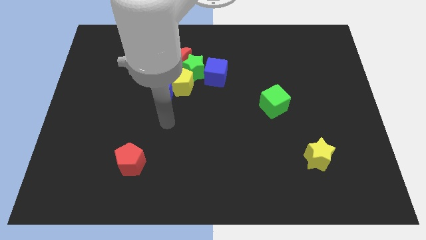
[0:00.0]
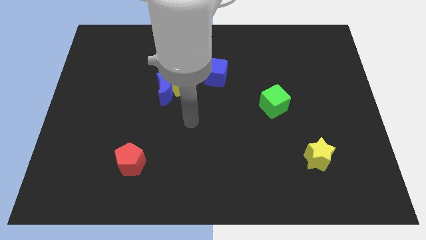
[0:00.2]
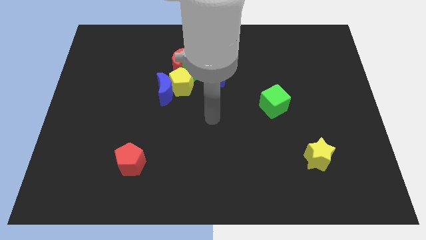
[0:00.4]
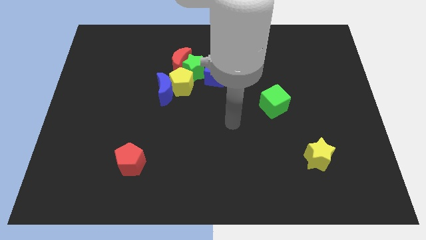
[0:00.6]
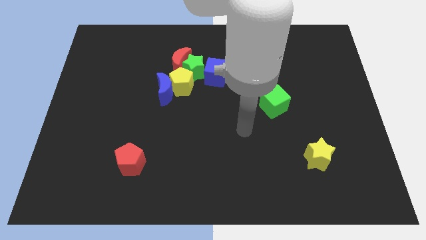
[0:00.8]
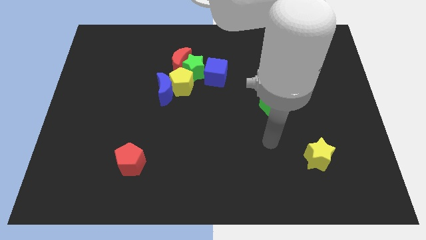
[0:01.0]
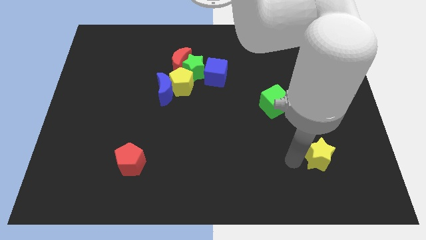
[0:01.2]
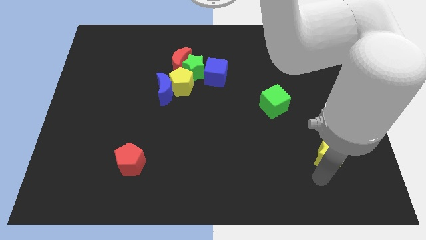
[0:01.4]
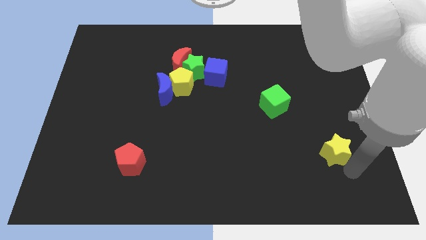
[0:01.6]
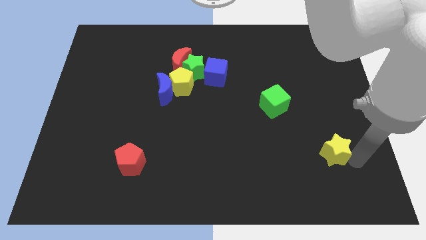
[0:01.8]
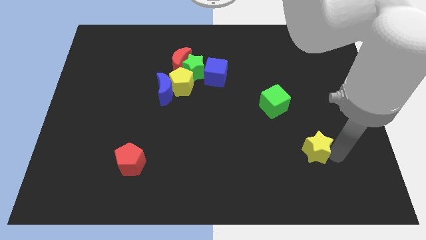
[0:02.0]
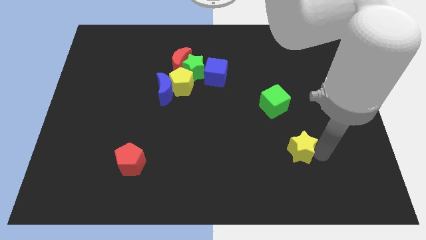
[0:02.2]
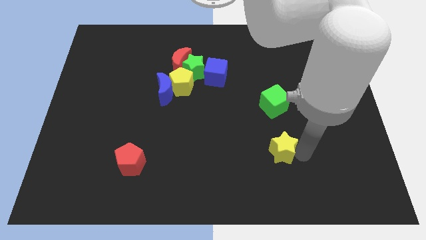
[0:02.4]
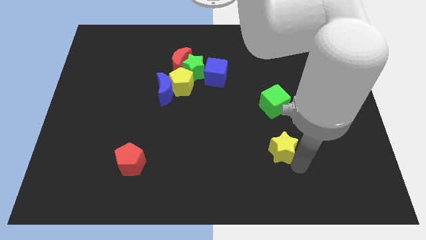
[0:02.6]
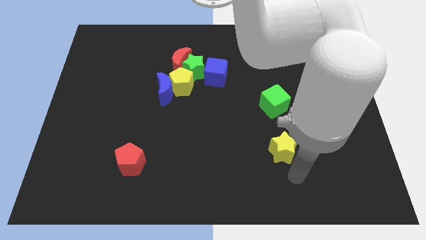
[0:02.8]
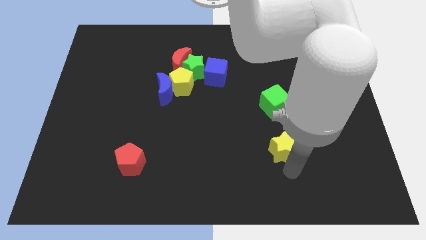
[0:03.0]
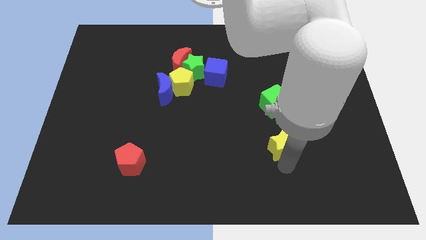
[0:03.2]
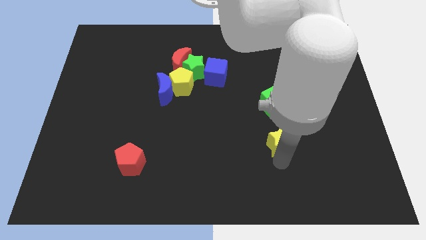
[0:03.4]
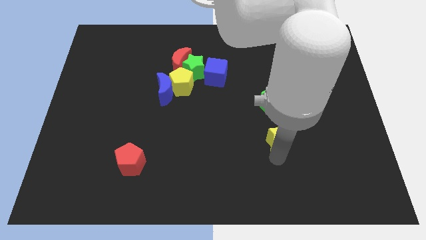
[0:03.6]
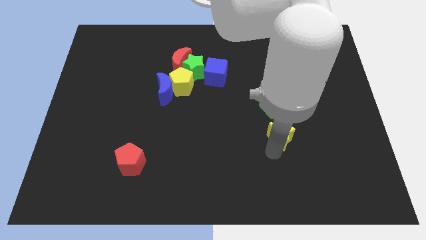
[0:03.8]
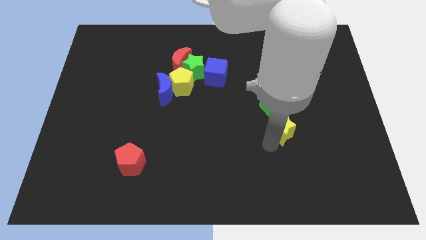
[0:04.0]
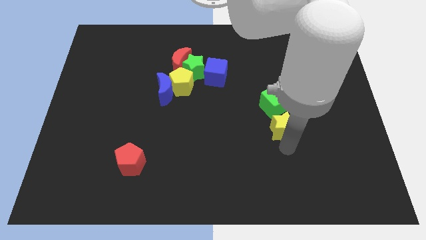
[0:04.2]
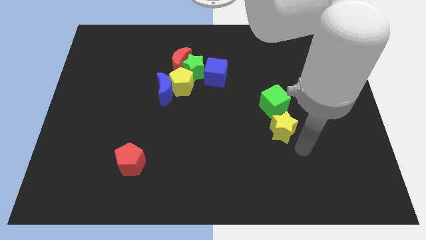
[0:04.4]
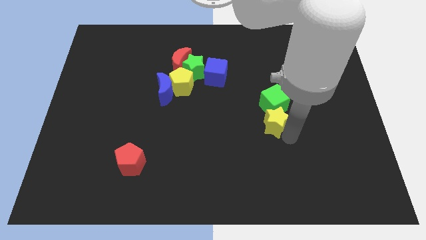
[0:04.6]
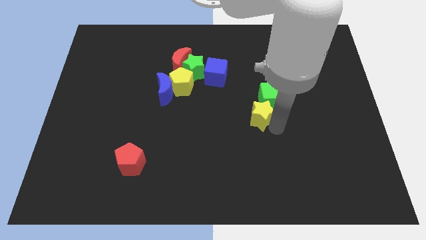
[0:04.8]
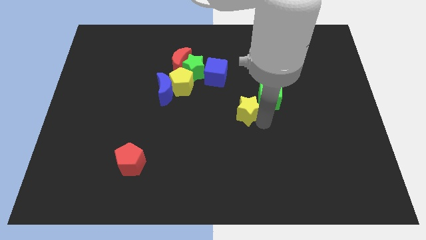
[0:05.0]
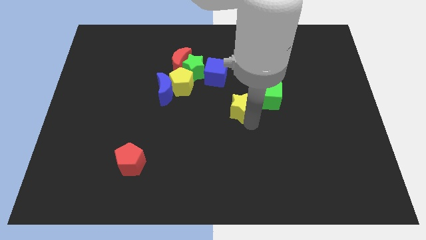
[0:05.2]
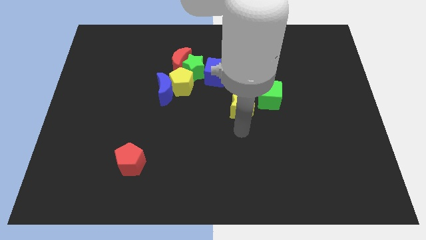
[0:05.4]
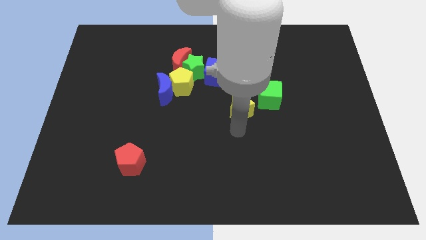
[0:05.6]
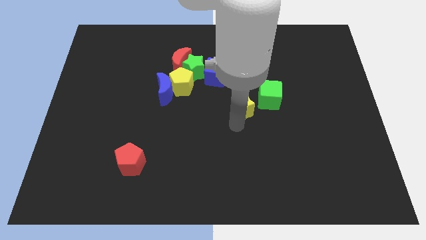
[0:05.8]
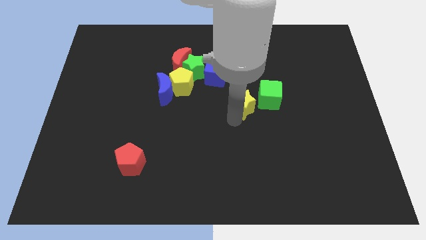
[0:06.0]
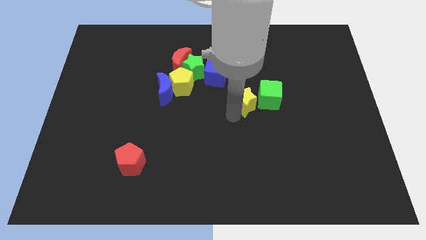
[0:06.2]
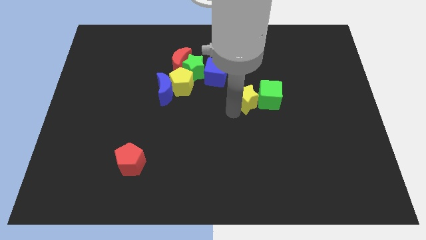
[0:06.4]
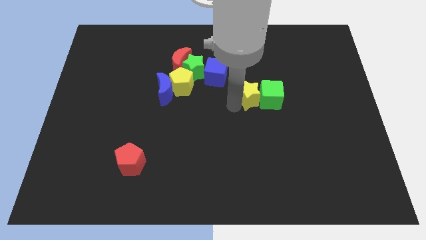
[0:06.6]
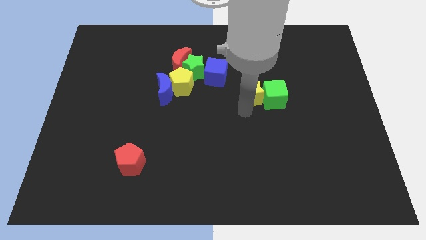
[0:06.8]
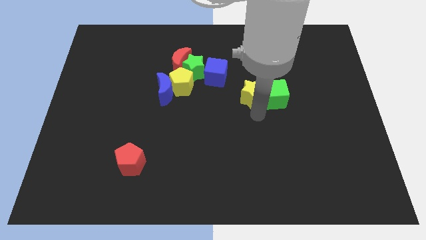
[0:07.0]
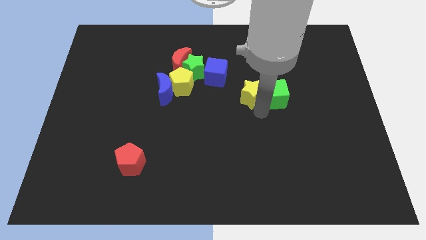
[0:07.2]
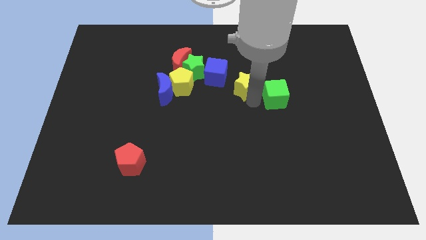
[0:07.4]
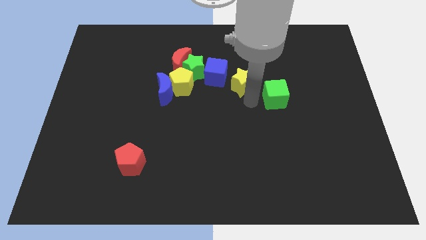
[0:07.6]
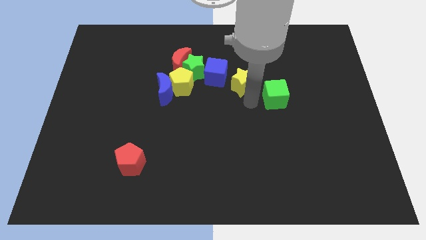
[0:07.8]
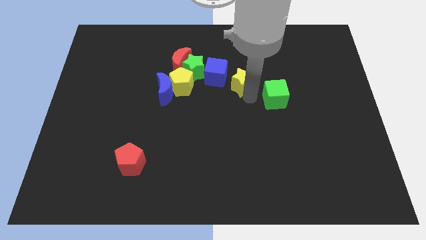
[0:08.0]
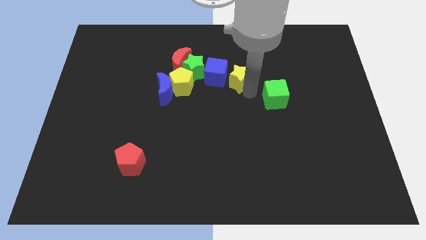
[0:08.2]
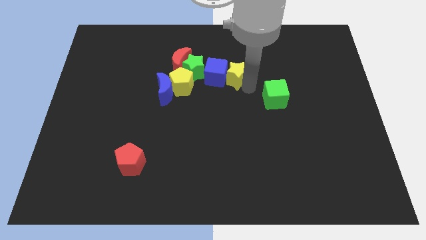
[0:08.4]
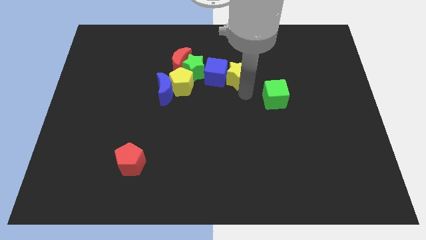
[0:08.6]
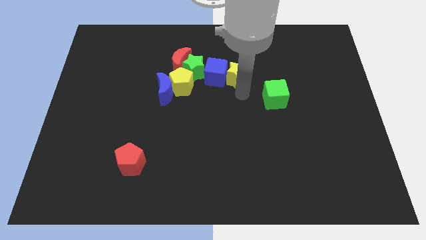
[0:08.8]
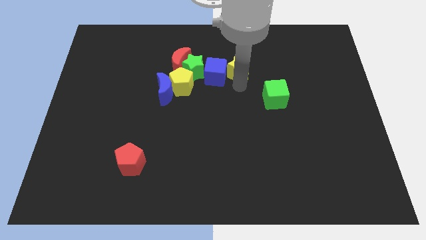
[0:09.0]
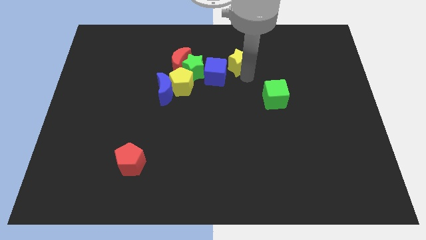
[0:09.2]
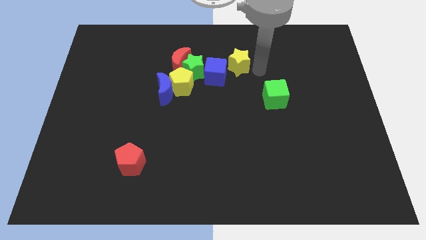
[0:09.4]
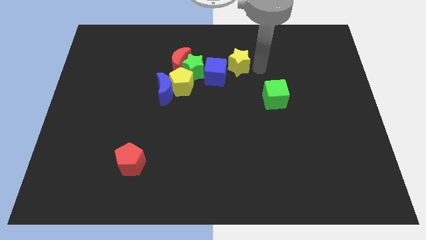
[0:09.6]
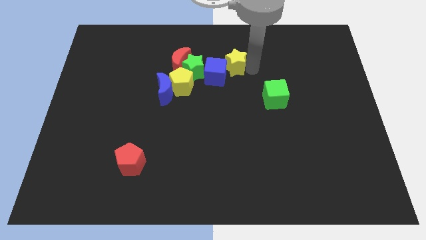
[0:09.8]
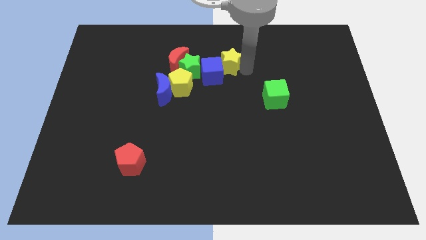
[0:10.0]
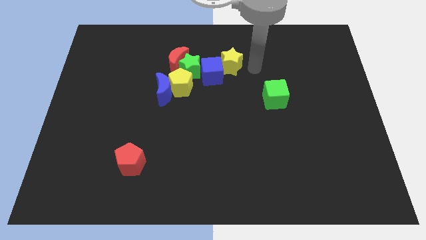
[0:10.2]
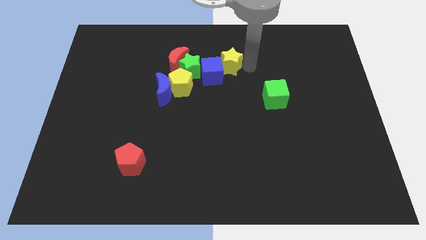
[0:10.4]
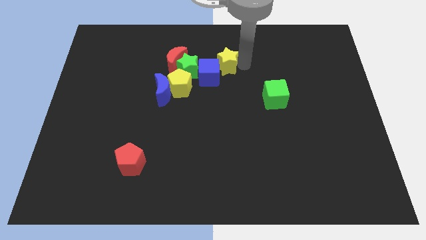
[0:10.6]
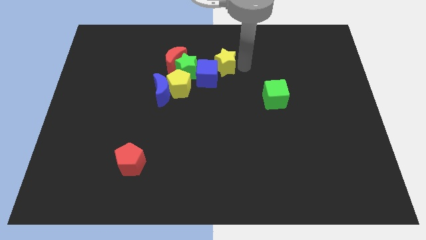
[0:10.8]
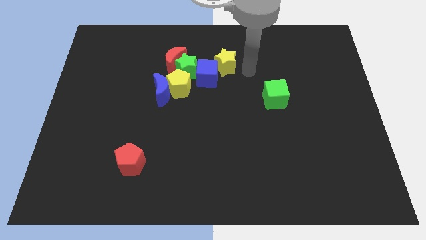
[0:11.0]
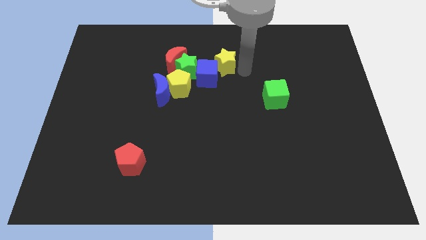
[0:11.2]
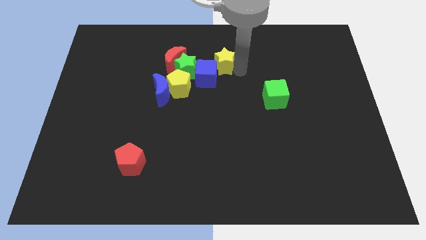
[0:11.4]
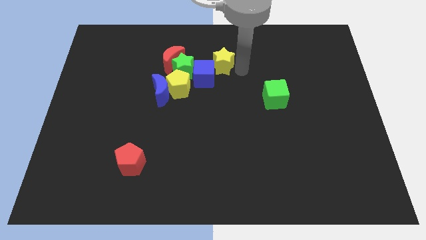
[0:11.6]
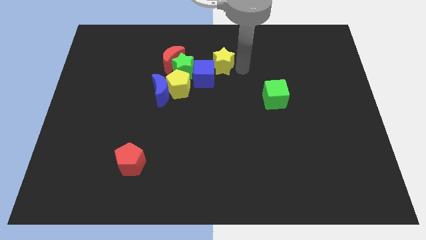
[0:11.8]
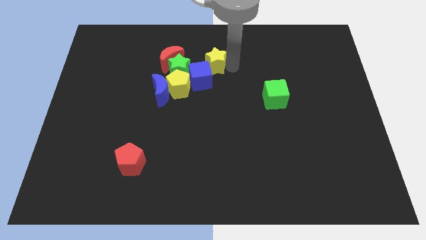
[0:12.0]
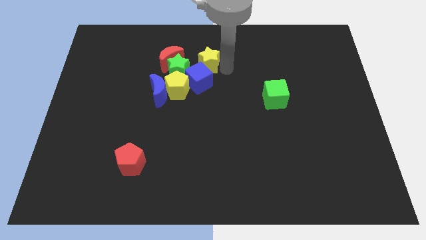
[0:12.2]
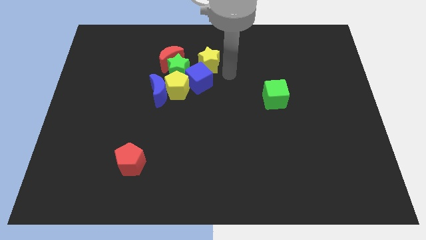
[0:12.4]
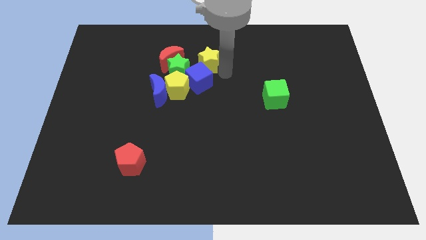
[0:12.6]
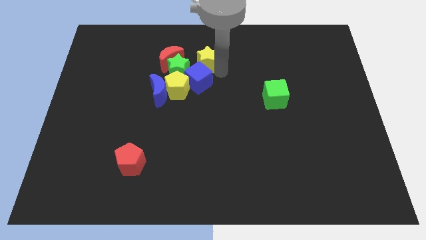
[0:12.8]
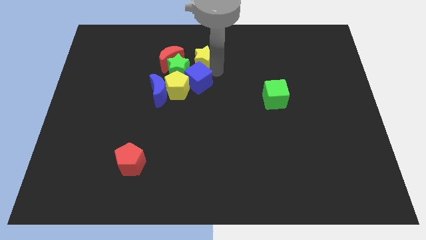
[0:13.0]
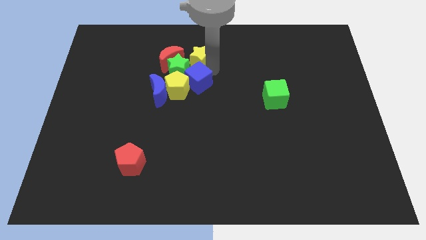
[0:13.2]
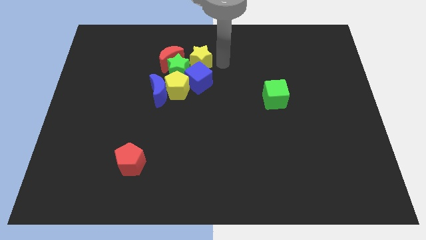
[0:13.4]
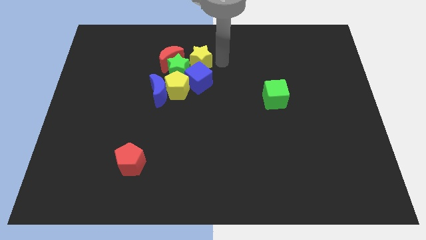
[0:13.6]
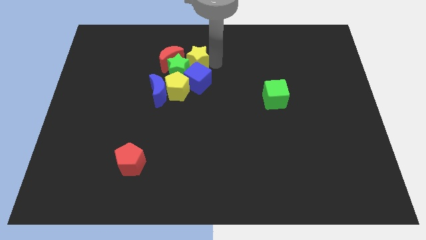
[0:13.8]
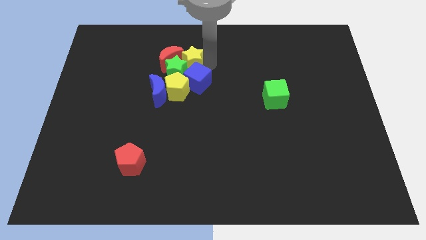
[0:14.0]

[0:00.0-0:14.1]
move the yellow star close to the red moon

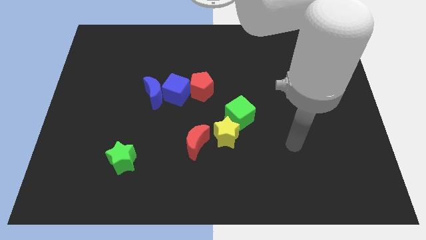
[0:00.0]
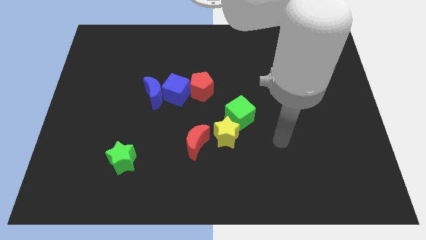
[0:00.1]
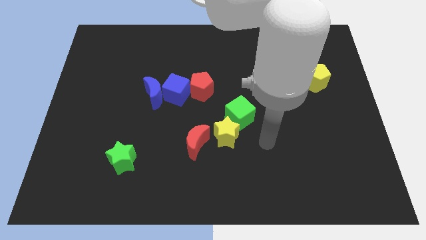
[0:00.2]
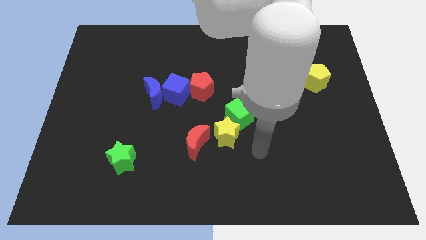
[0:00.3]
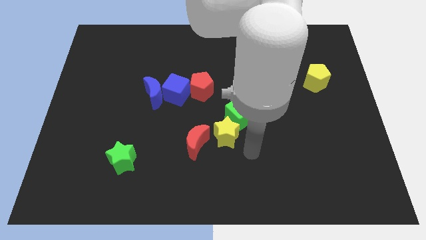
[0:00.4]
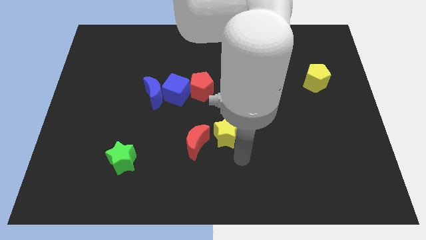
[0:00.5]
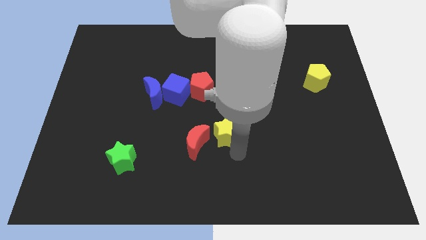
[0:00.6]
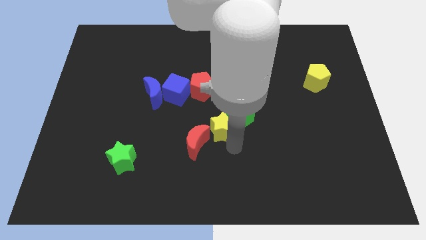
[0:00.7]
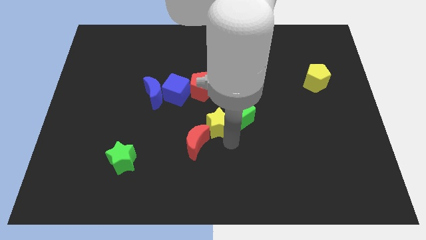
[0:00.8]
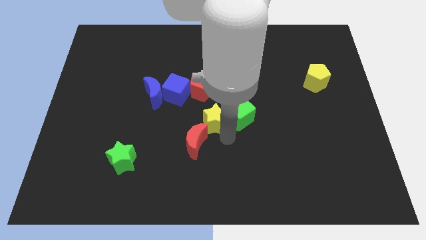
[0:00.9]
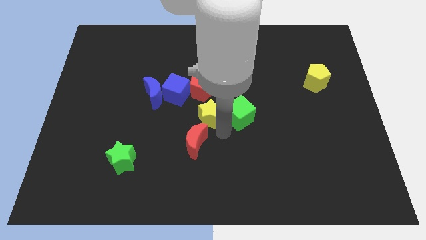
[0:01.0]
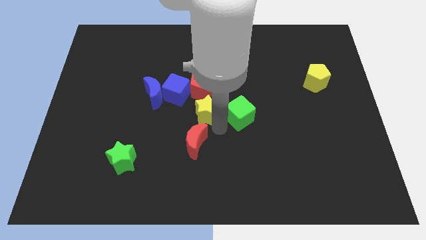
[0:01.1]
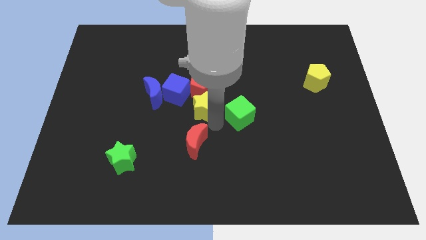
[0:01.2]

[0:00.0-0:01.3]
push the yellow star close to the red pentagon
